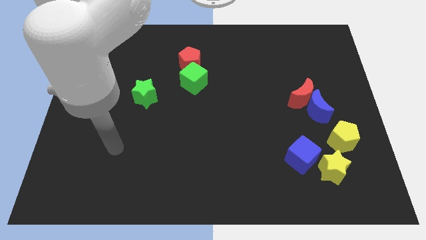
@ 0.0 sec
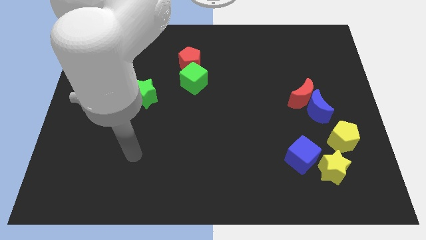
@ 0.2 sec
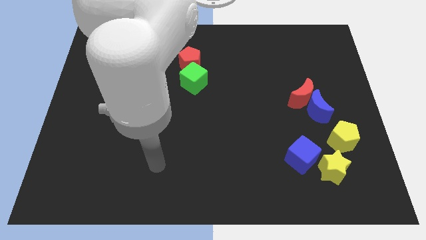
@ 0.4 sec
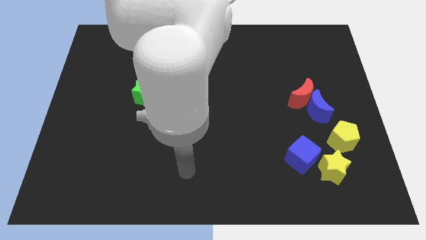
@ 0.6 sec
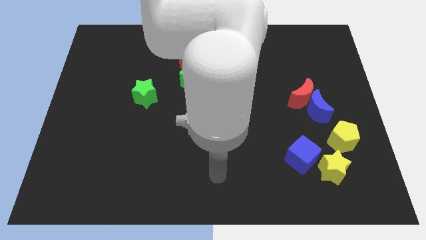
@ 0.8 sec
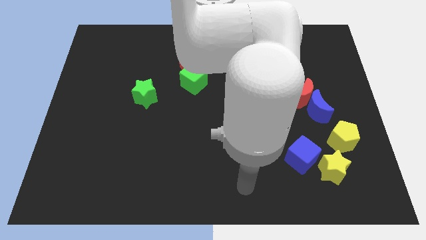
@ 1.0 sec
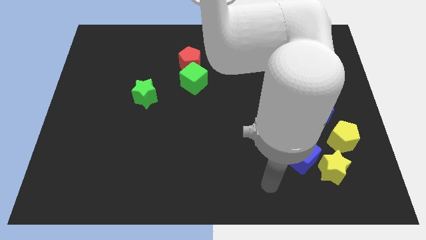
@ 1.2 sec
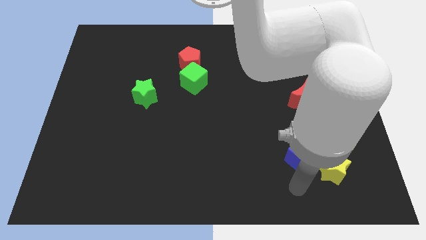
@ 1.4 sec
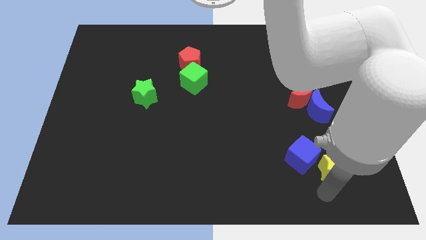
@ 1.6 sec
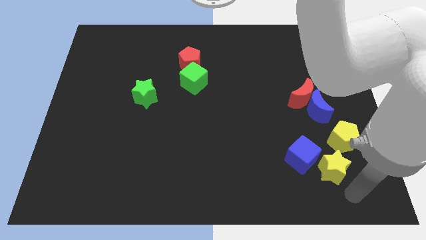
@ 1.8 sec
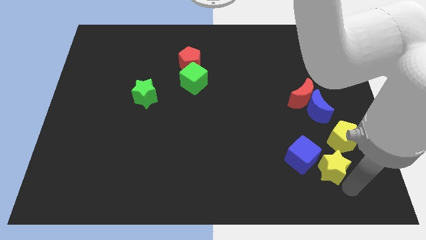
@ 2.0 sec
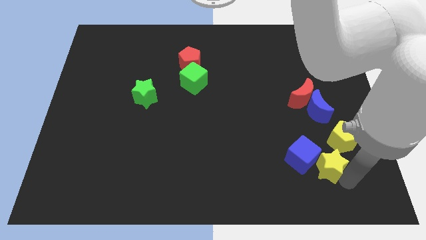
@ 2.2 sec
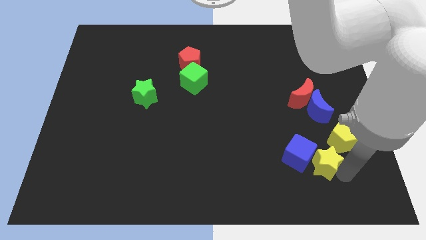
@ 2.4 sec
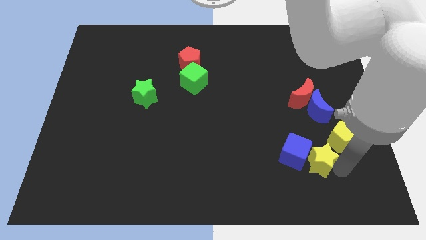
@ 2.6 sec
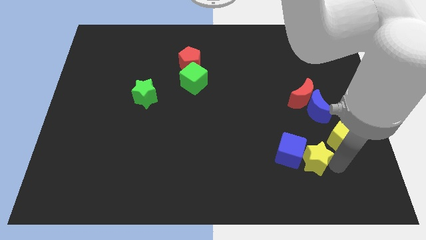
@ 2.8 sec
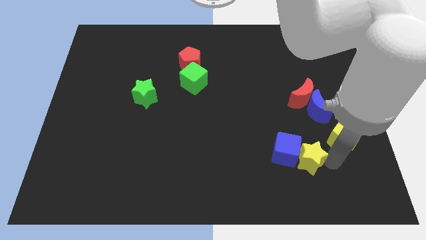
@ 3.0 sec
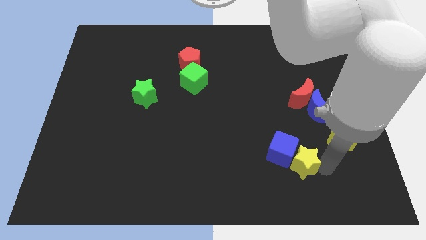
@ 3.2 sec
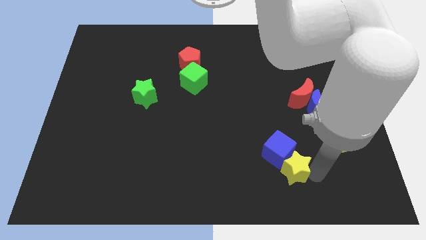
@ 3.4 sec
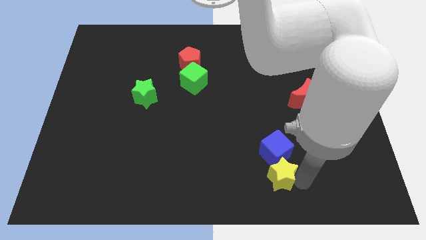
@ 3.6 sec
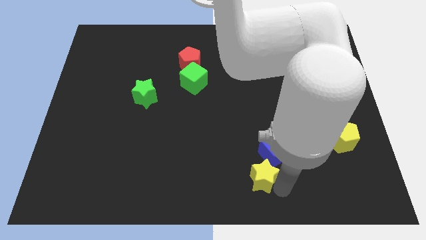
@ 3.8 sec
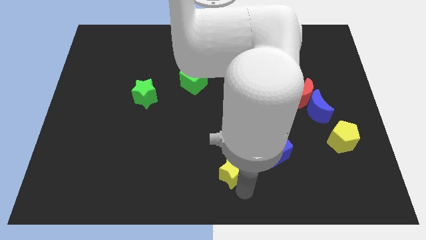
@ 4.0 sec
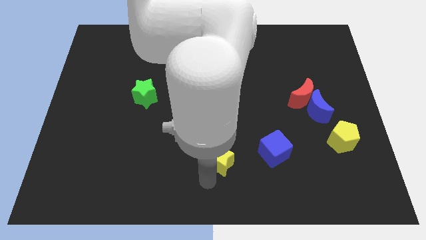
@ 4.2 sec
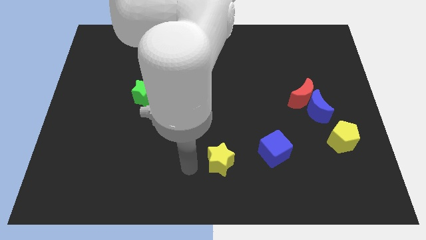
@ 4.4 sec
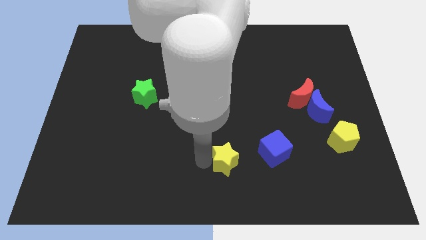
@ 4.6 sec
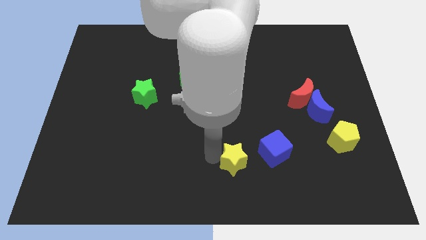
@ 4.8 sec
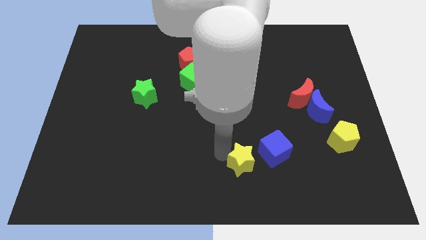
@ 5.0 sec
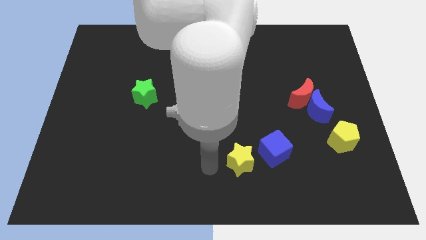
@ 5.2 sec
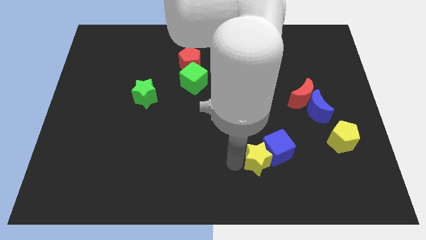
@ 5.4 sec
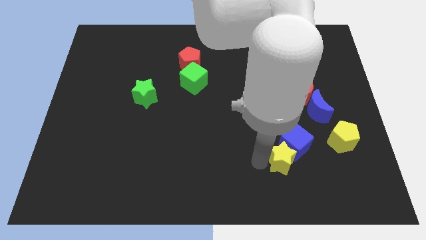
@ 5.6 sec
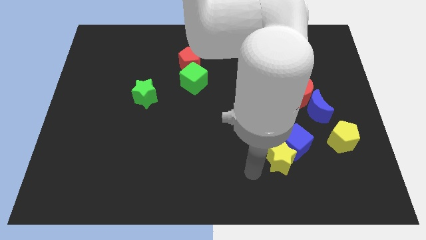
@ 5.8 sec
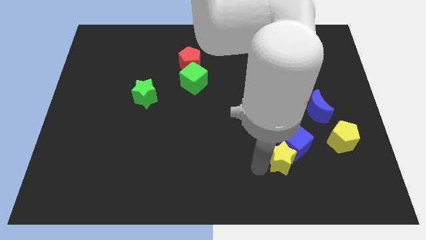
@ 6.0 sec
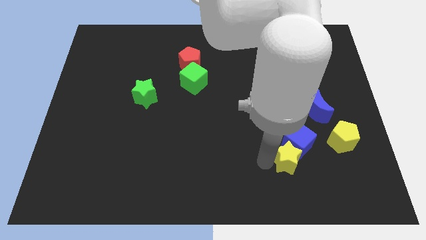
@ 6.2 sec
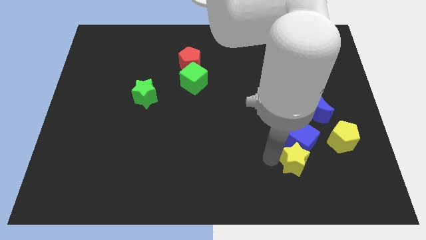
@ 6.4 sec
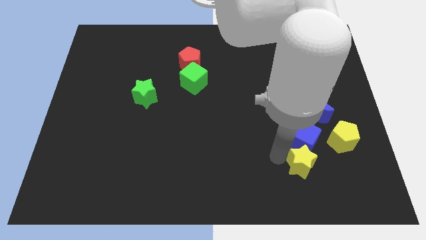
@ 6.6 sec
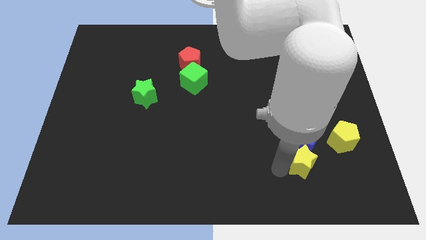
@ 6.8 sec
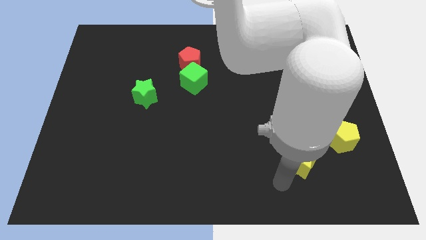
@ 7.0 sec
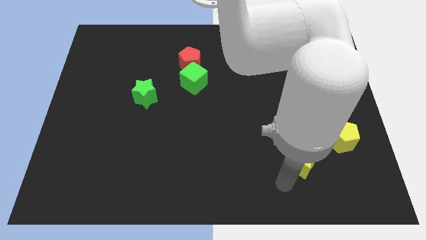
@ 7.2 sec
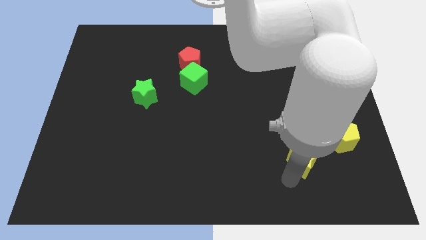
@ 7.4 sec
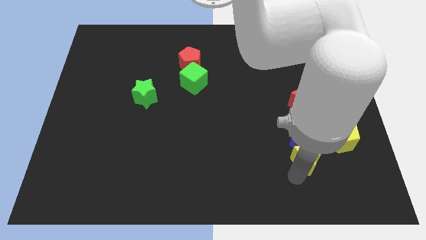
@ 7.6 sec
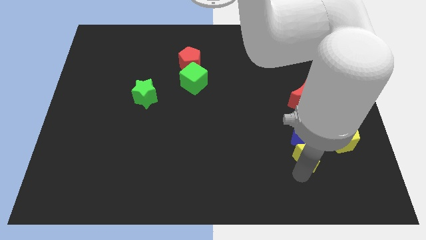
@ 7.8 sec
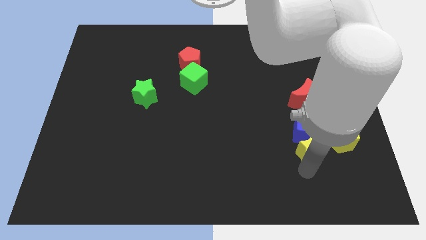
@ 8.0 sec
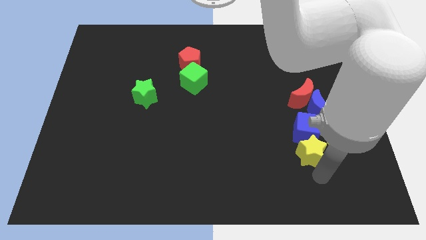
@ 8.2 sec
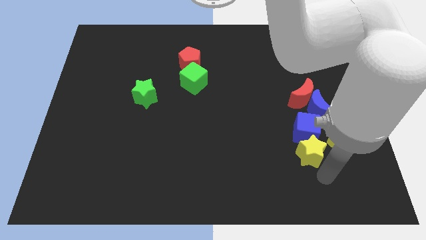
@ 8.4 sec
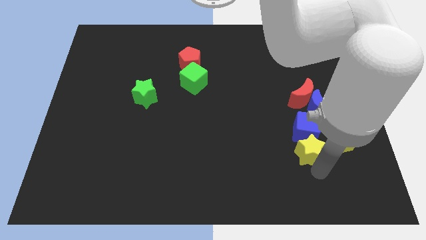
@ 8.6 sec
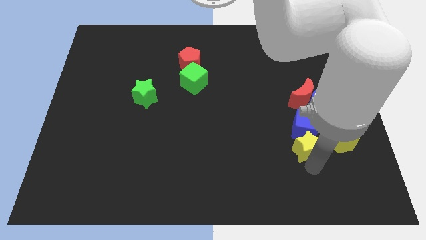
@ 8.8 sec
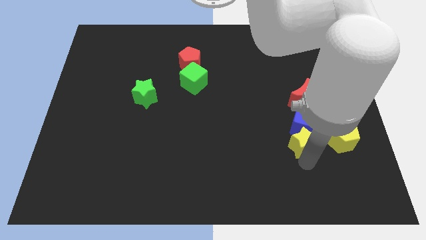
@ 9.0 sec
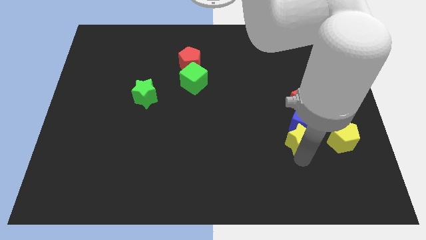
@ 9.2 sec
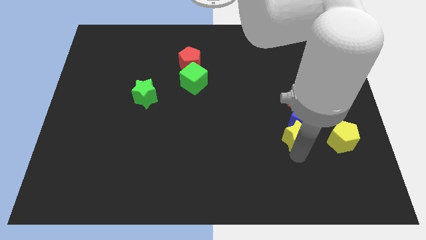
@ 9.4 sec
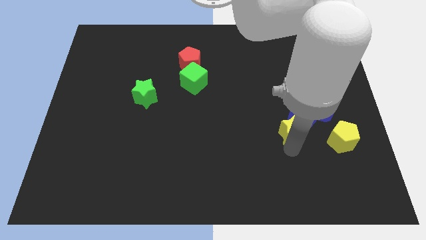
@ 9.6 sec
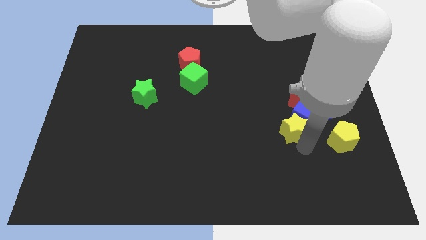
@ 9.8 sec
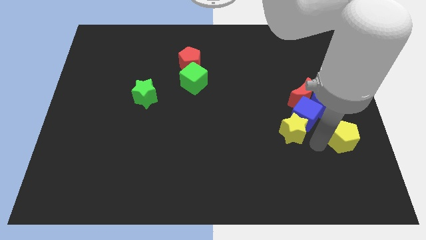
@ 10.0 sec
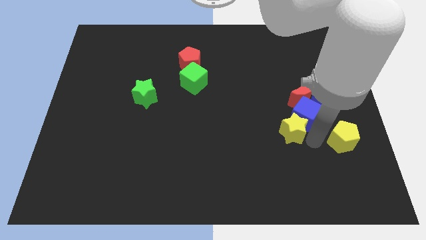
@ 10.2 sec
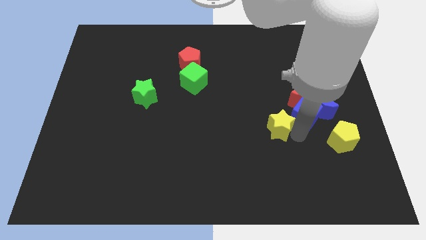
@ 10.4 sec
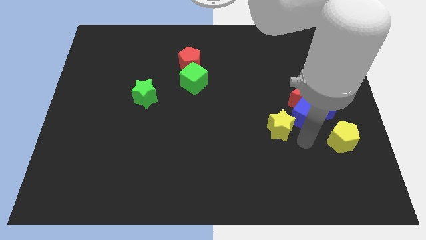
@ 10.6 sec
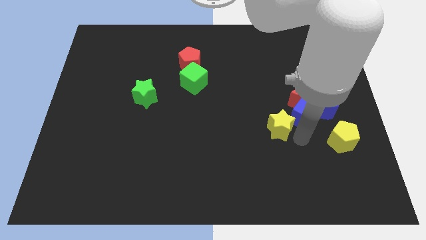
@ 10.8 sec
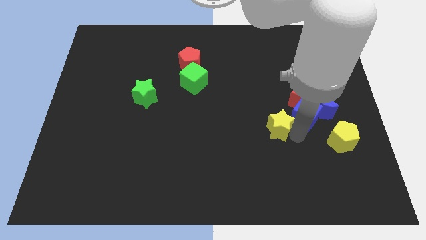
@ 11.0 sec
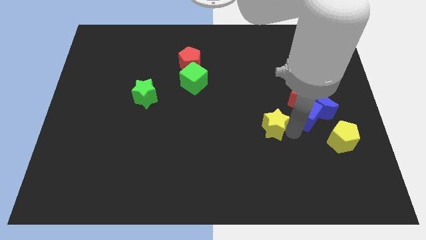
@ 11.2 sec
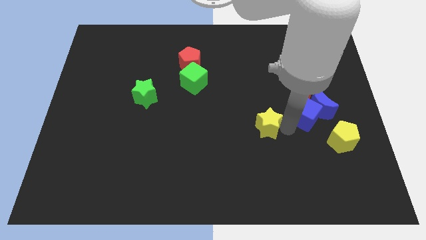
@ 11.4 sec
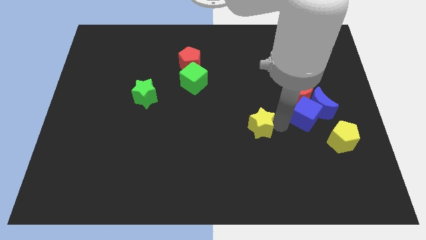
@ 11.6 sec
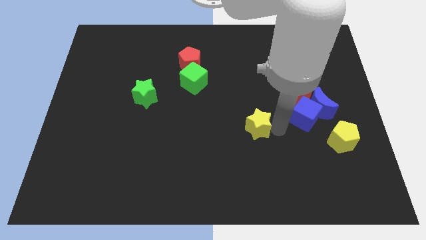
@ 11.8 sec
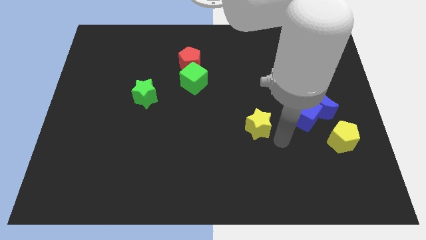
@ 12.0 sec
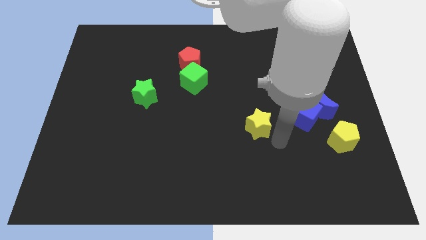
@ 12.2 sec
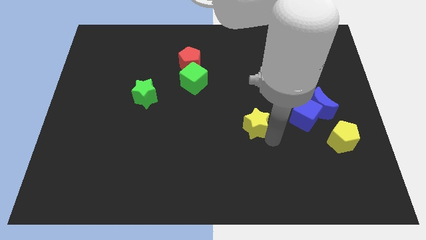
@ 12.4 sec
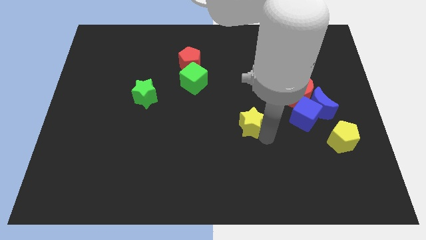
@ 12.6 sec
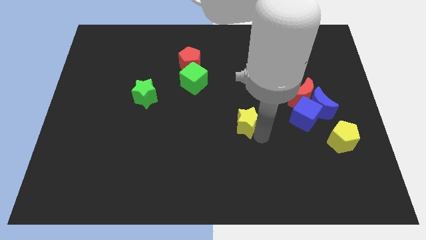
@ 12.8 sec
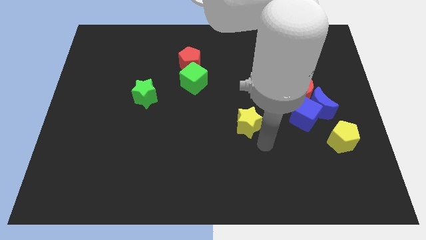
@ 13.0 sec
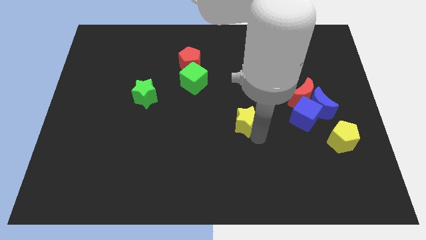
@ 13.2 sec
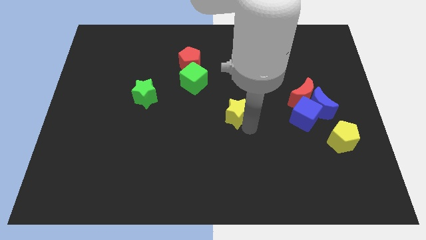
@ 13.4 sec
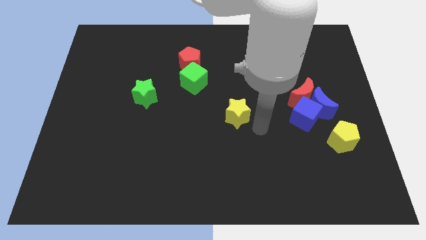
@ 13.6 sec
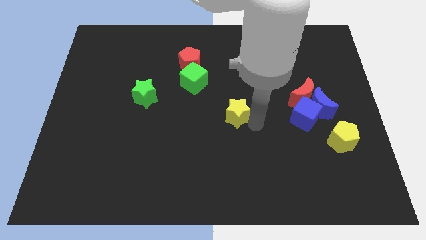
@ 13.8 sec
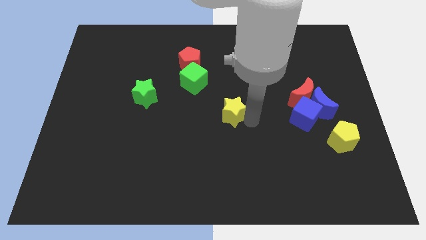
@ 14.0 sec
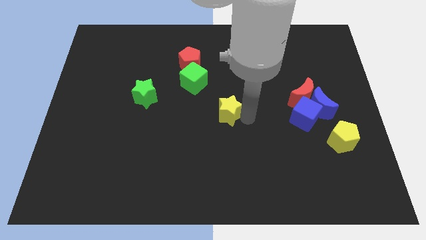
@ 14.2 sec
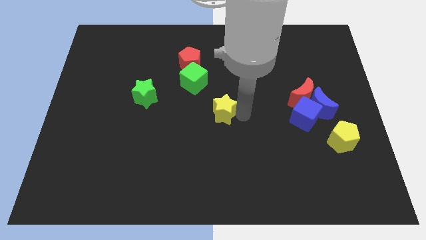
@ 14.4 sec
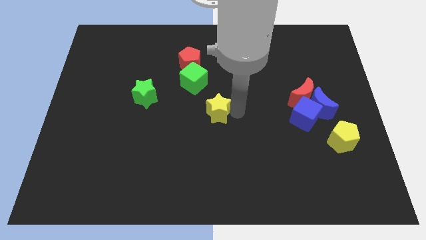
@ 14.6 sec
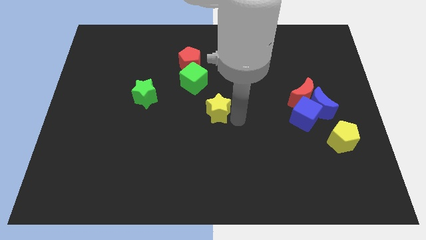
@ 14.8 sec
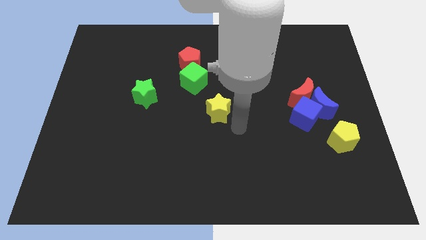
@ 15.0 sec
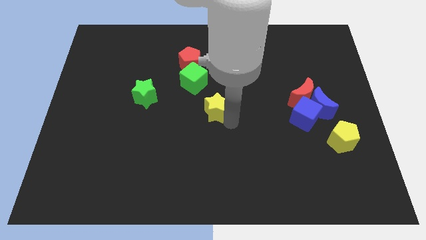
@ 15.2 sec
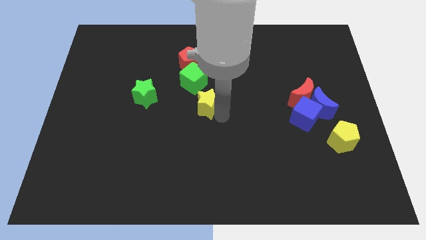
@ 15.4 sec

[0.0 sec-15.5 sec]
push the yellow star to the right of the green star
